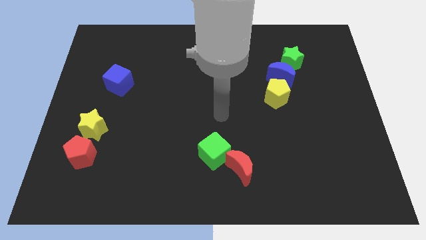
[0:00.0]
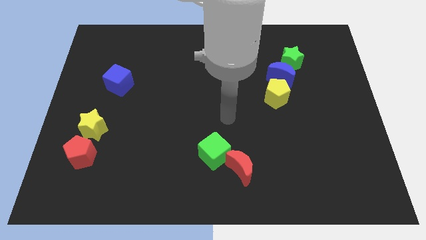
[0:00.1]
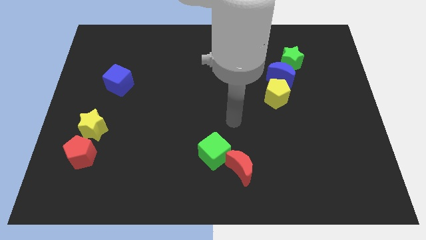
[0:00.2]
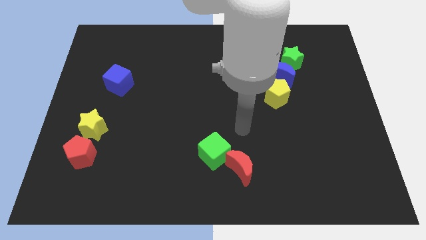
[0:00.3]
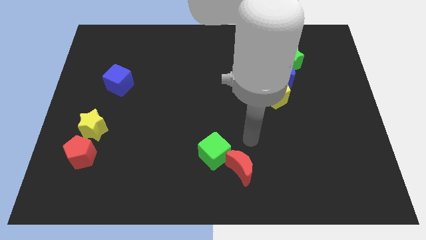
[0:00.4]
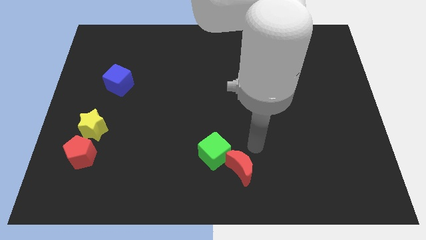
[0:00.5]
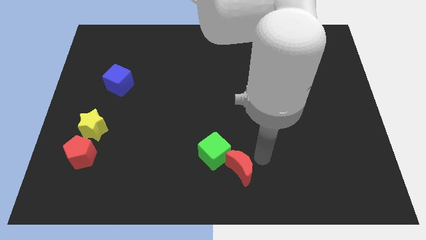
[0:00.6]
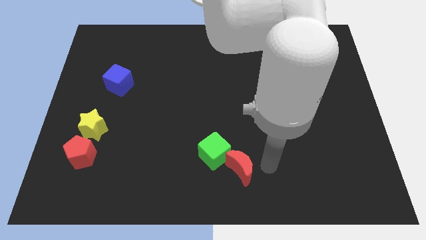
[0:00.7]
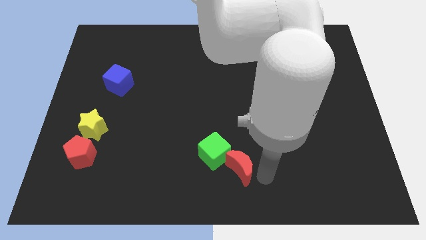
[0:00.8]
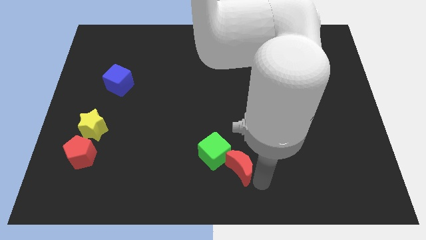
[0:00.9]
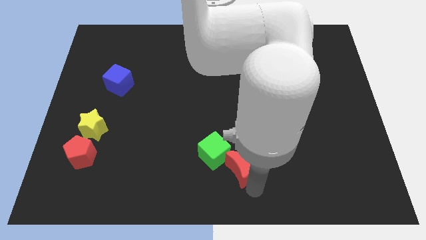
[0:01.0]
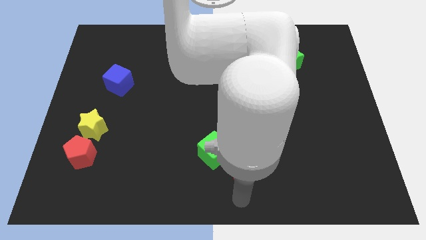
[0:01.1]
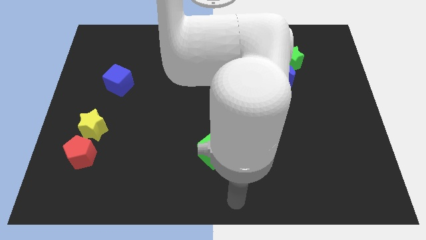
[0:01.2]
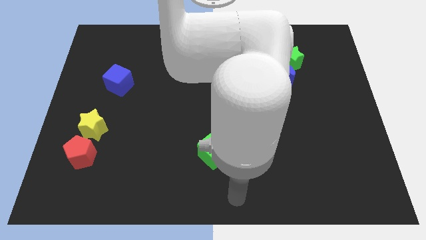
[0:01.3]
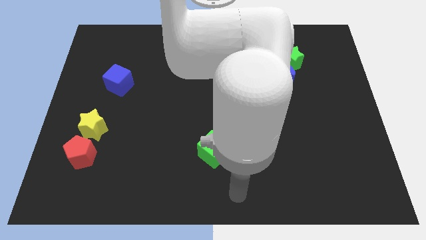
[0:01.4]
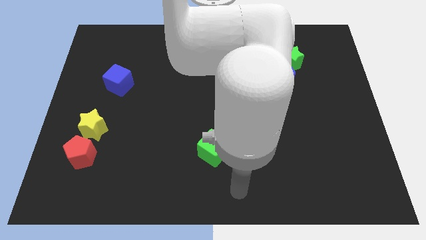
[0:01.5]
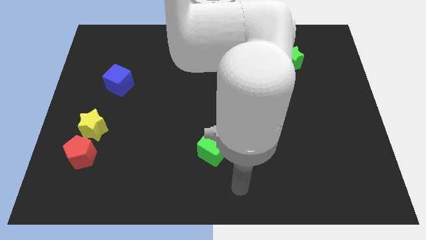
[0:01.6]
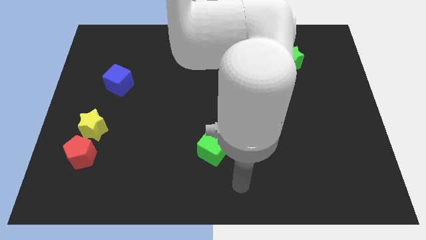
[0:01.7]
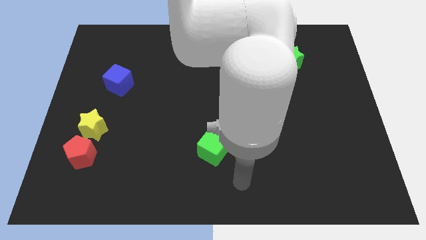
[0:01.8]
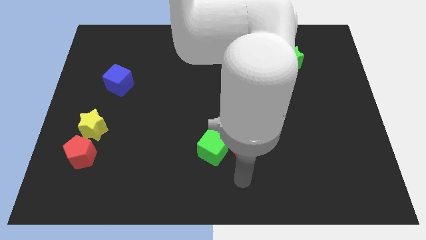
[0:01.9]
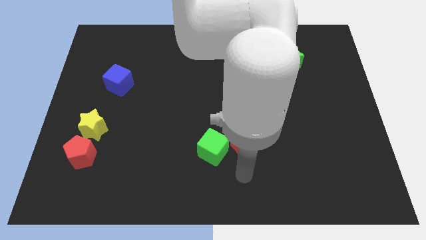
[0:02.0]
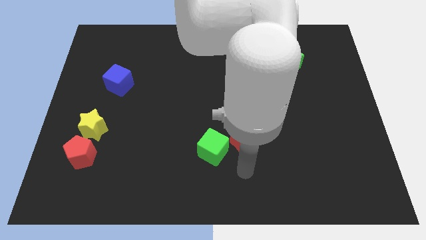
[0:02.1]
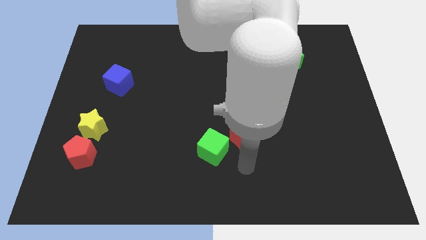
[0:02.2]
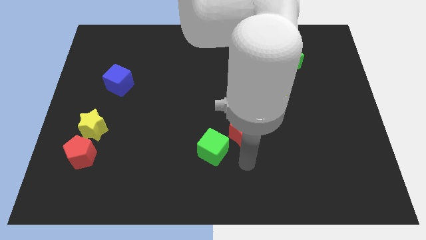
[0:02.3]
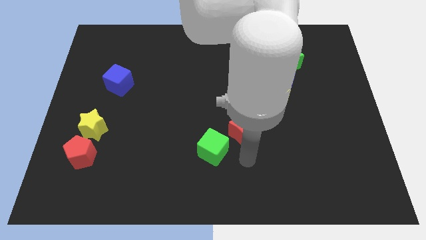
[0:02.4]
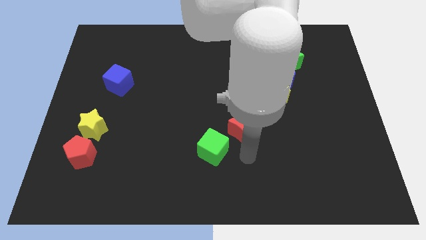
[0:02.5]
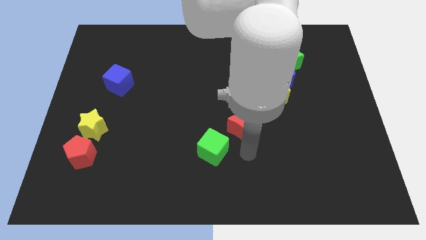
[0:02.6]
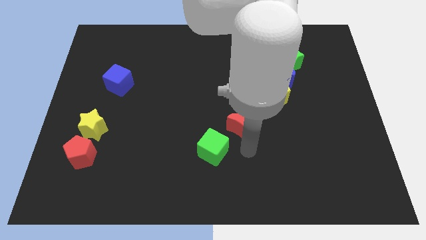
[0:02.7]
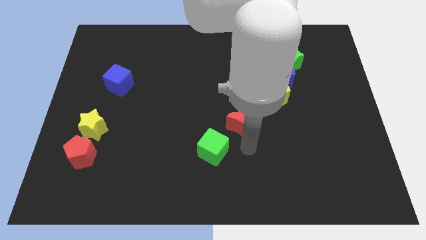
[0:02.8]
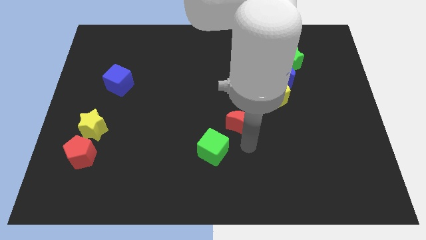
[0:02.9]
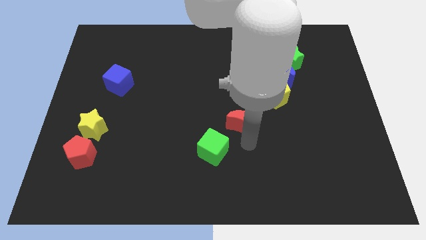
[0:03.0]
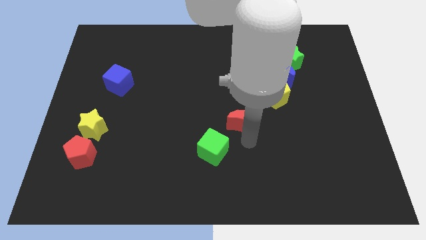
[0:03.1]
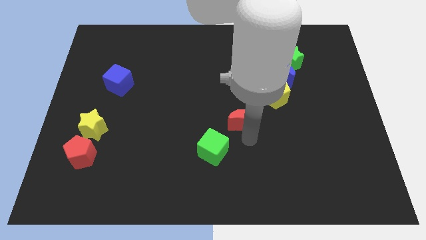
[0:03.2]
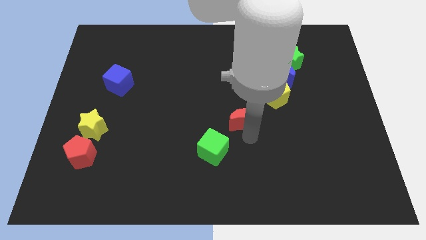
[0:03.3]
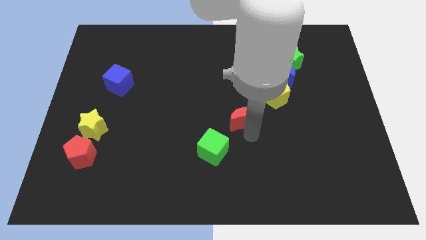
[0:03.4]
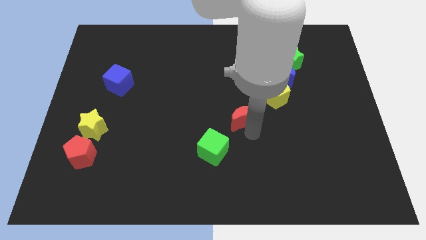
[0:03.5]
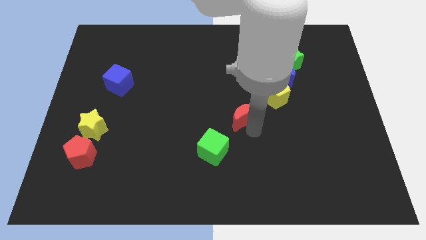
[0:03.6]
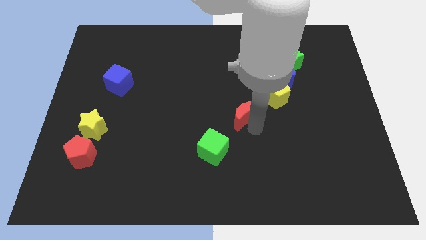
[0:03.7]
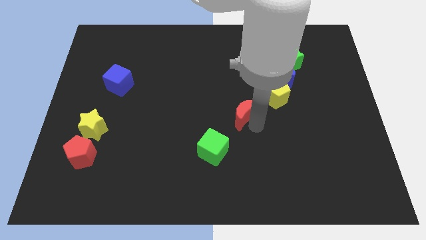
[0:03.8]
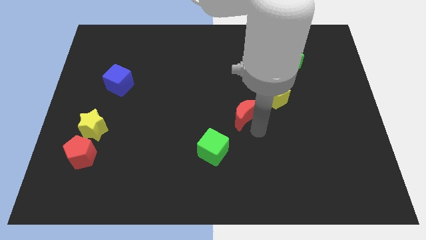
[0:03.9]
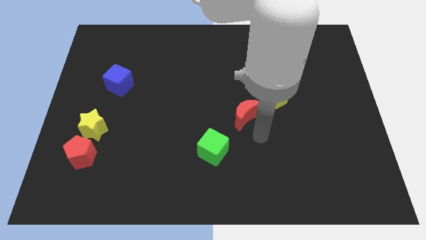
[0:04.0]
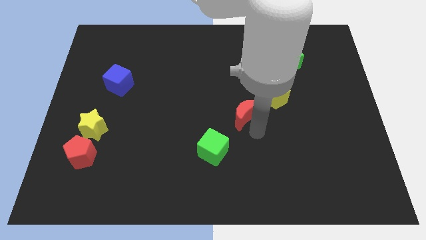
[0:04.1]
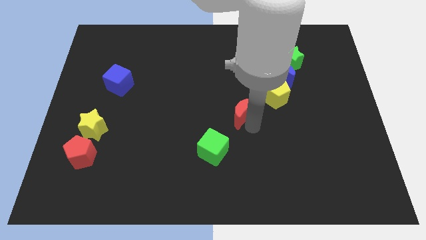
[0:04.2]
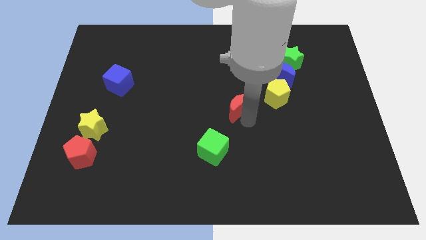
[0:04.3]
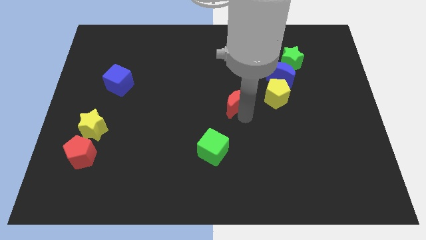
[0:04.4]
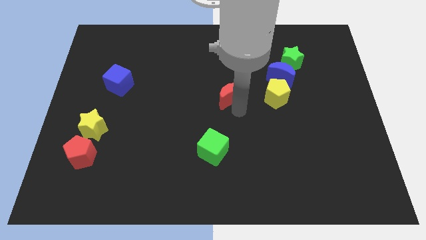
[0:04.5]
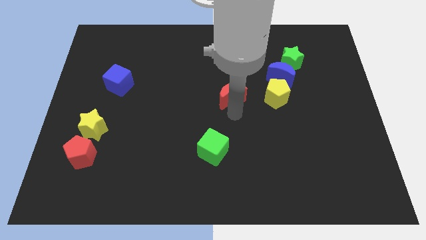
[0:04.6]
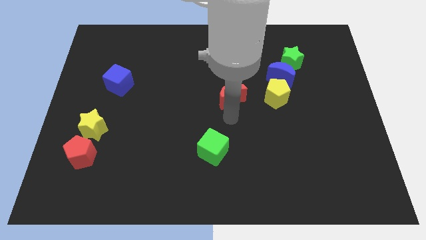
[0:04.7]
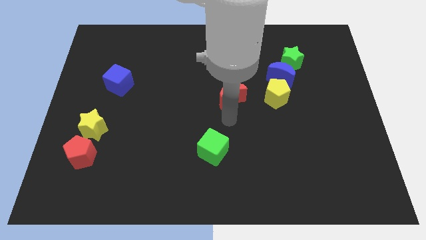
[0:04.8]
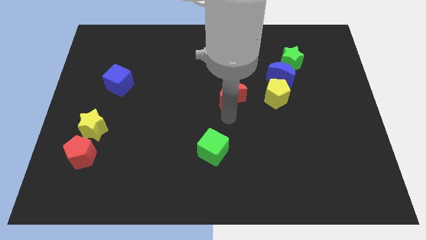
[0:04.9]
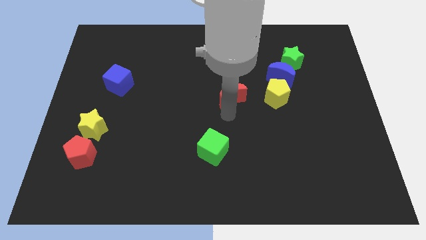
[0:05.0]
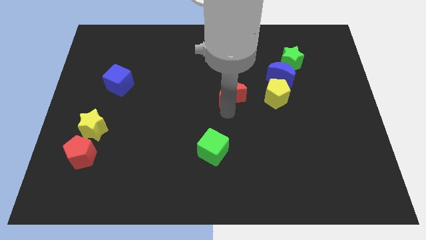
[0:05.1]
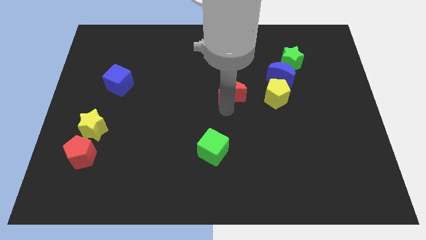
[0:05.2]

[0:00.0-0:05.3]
push the red moon upwards

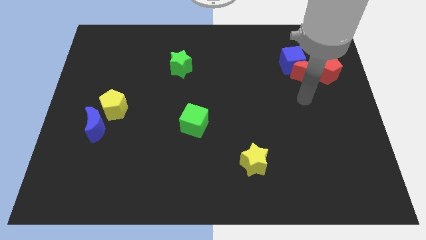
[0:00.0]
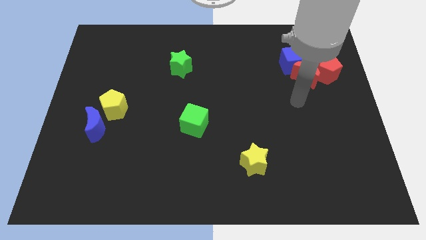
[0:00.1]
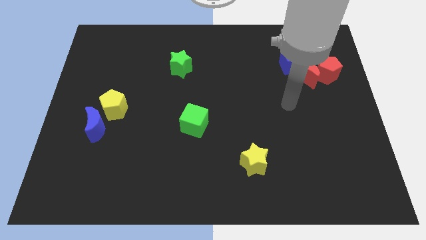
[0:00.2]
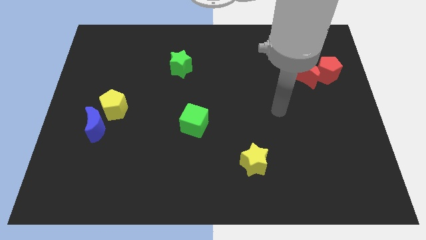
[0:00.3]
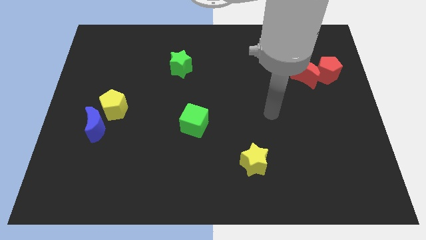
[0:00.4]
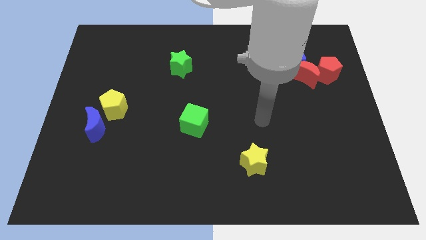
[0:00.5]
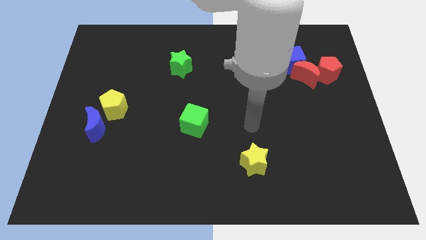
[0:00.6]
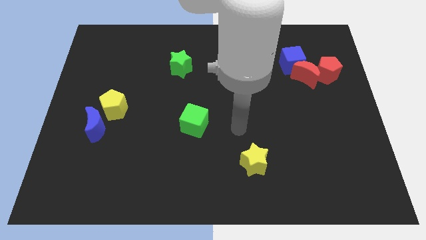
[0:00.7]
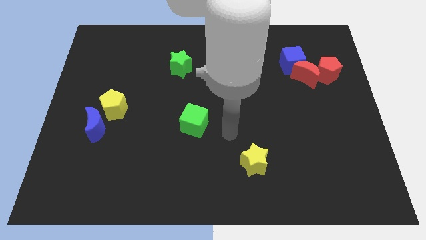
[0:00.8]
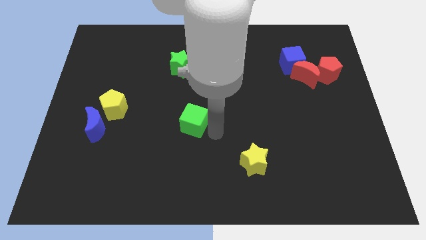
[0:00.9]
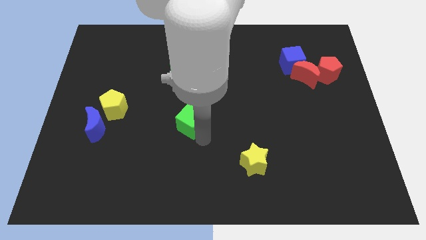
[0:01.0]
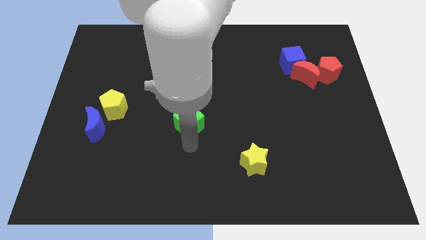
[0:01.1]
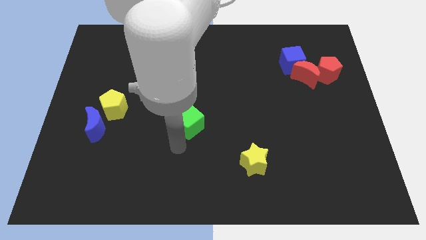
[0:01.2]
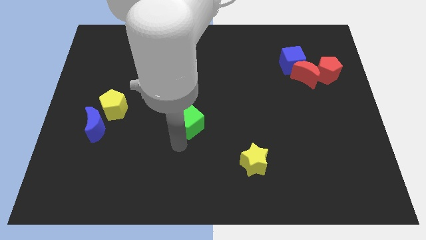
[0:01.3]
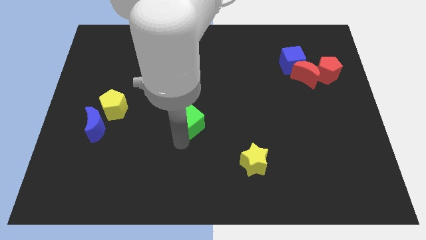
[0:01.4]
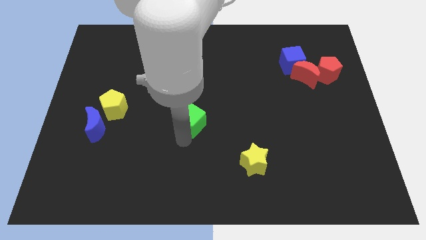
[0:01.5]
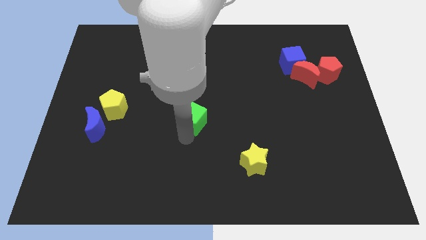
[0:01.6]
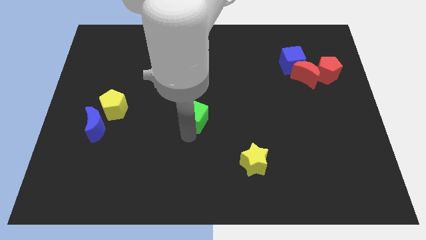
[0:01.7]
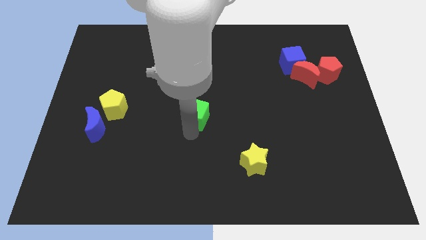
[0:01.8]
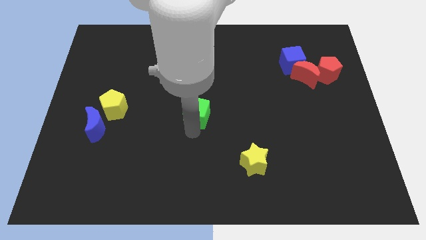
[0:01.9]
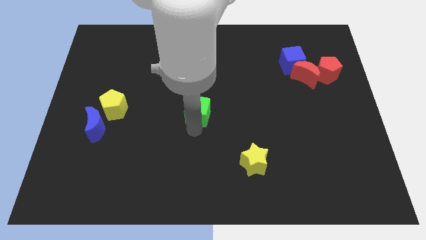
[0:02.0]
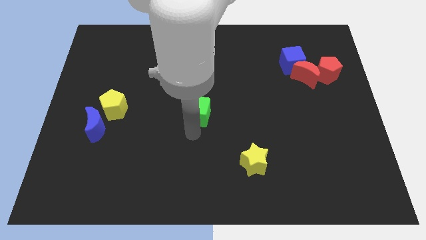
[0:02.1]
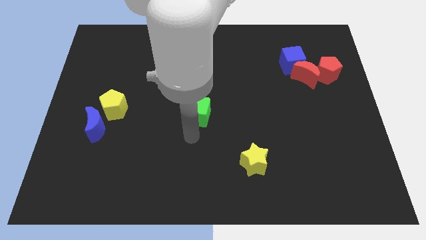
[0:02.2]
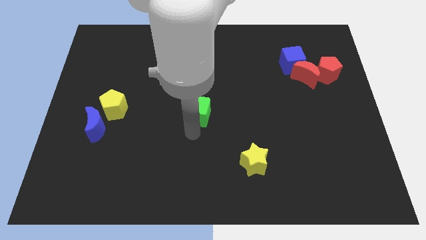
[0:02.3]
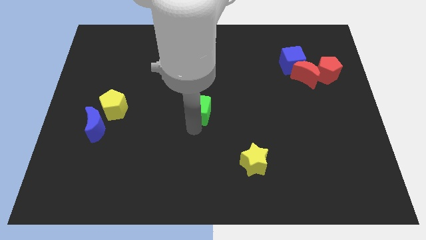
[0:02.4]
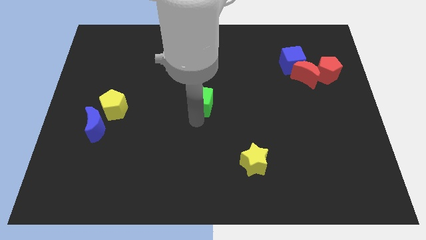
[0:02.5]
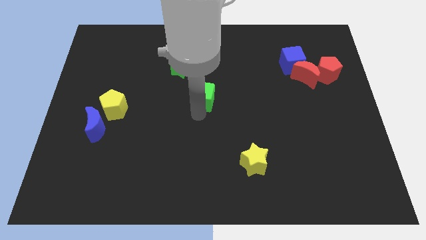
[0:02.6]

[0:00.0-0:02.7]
slightly push the green cube up
